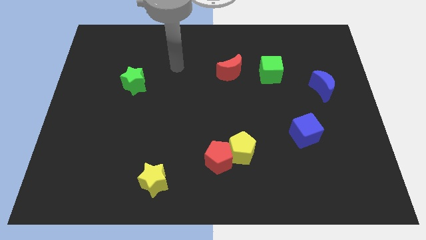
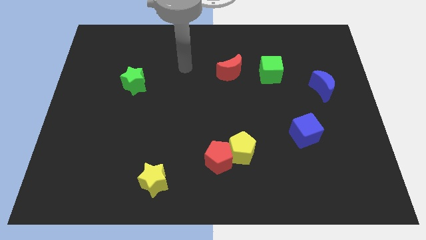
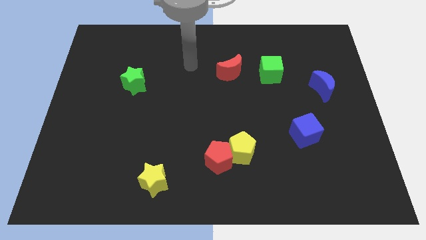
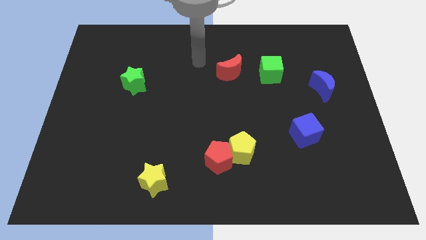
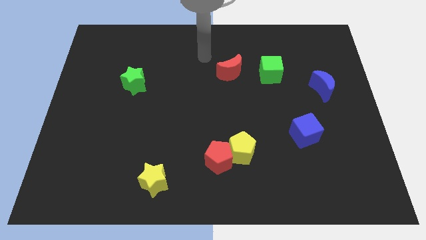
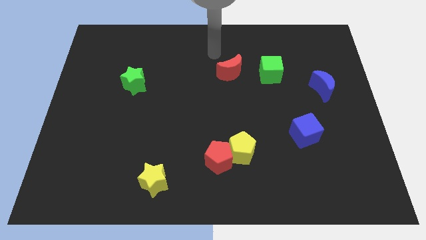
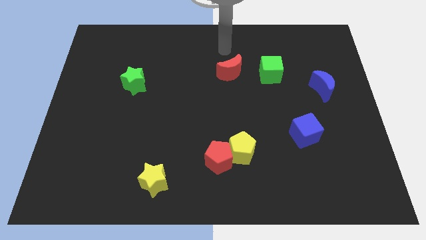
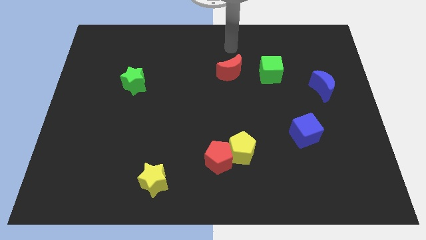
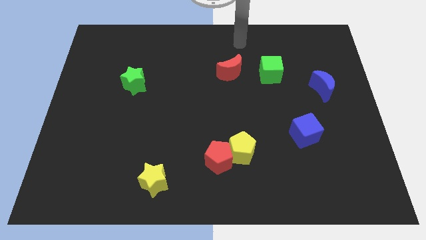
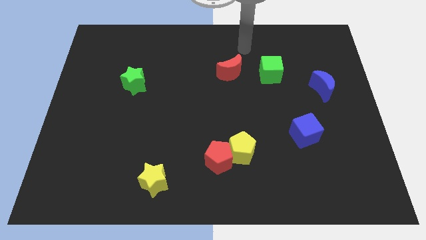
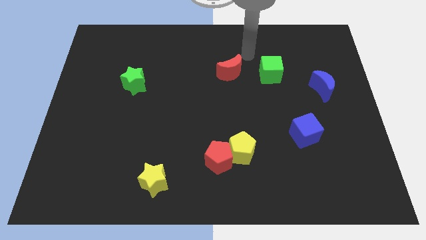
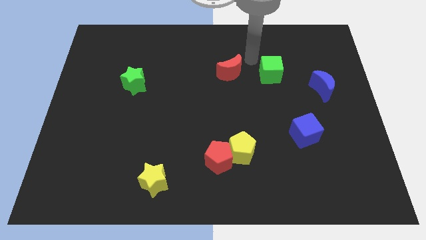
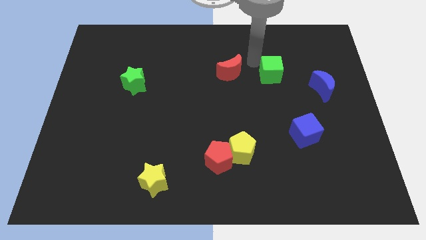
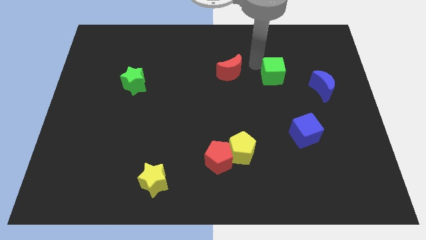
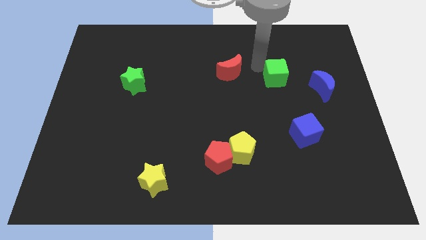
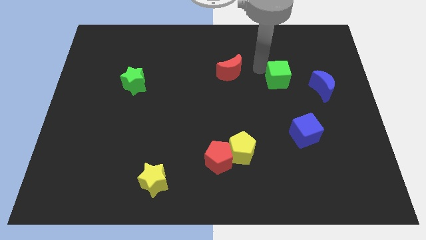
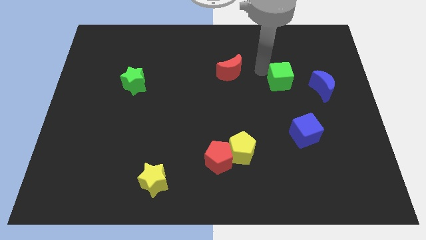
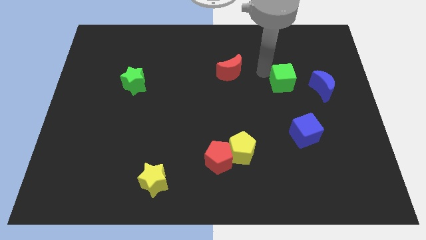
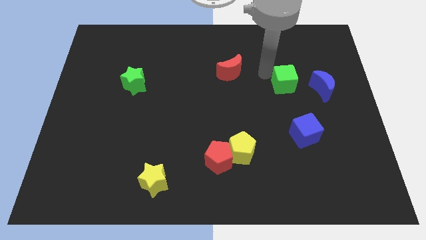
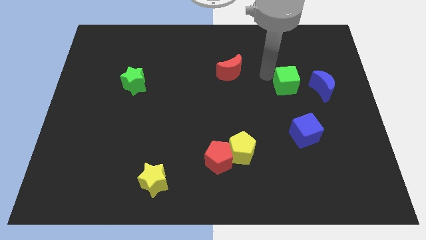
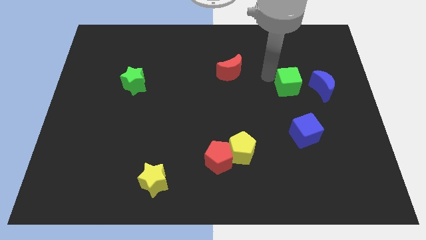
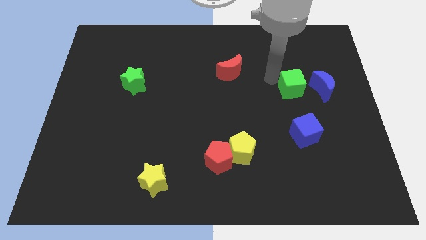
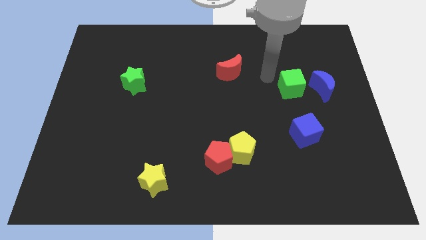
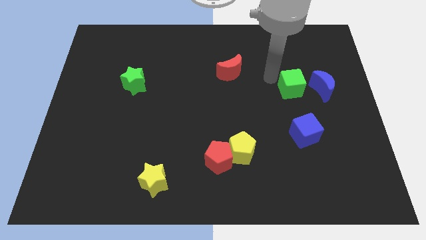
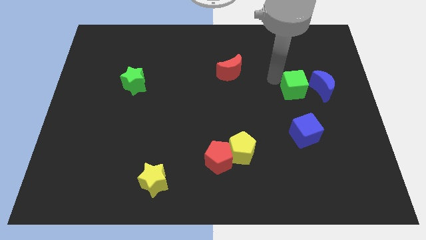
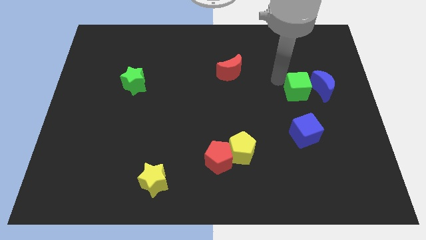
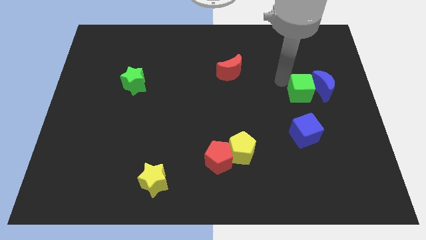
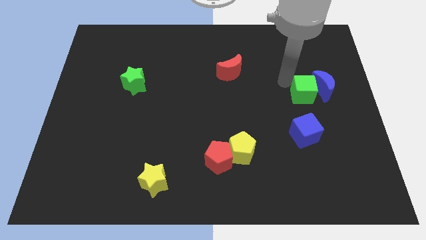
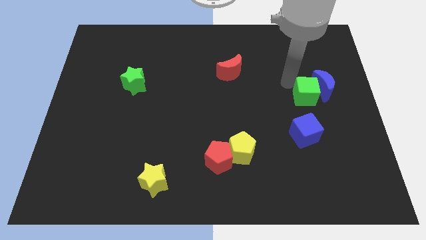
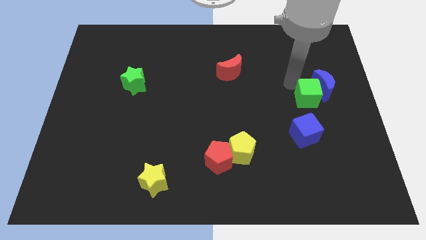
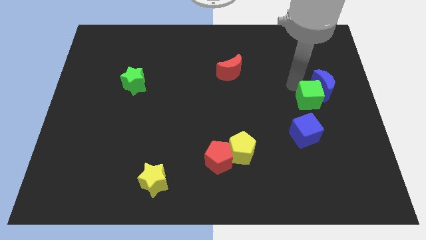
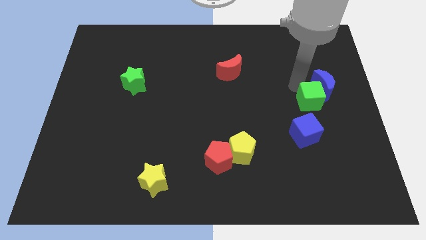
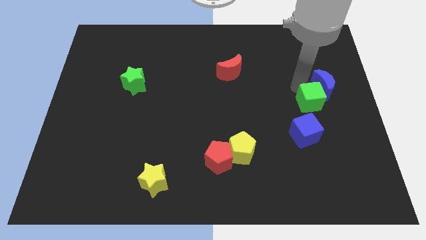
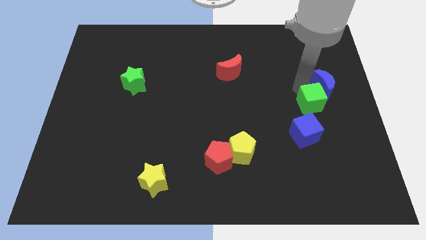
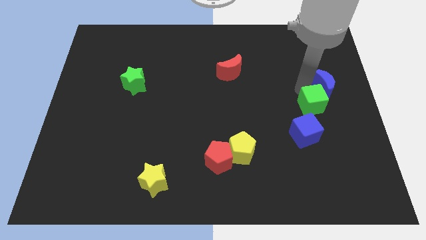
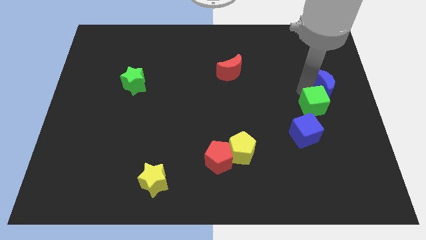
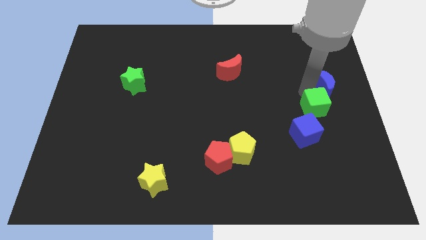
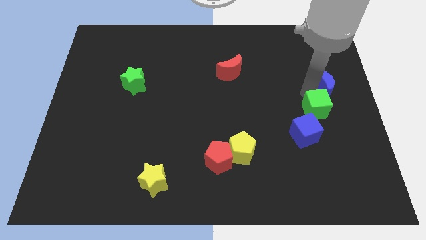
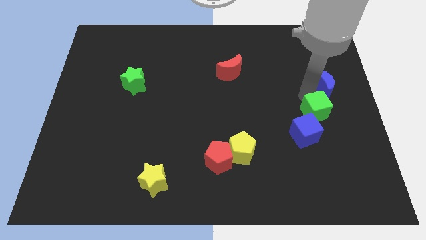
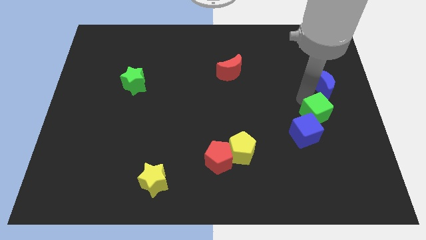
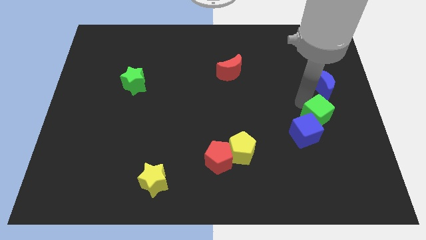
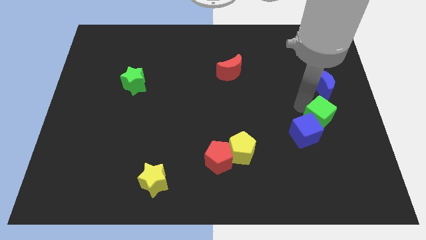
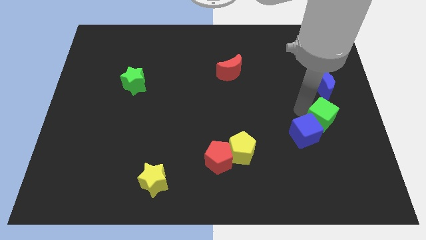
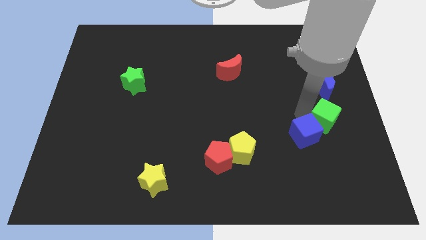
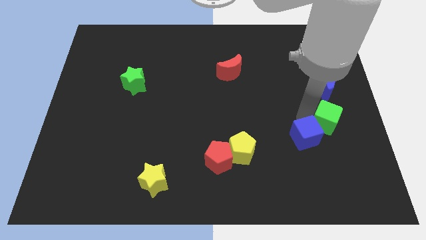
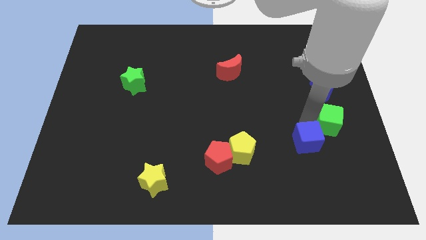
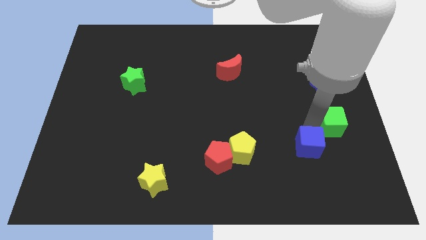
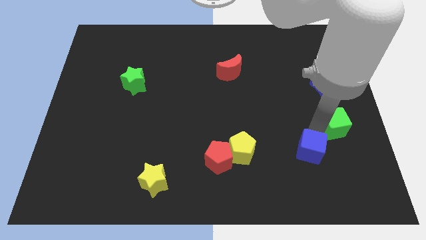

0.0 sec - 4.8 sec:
slide the green cube to the center right

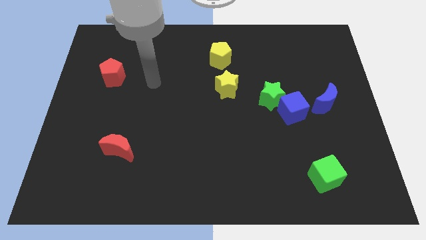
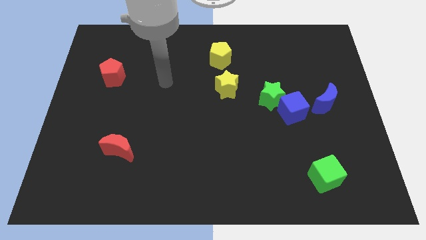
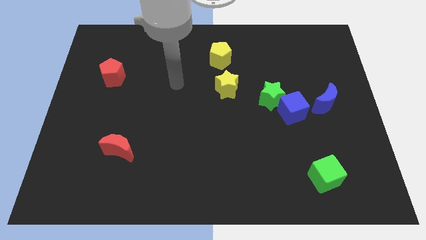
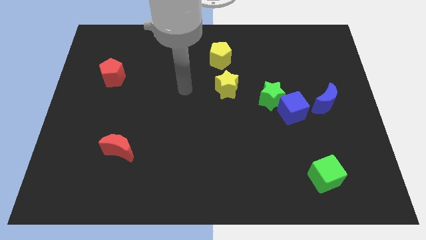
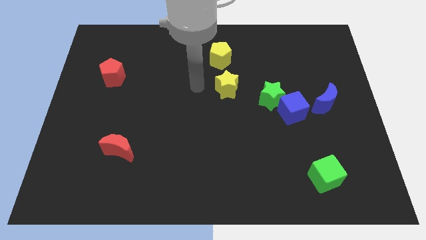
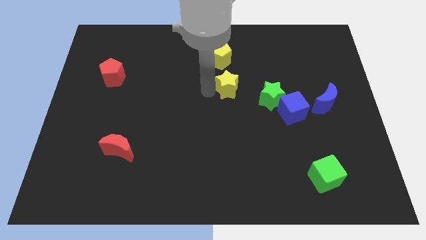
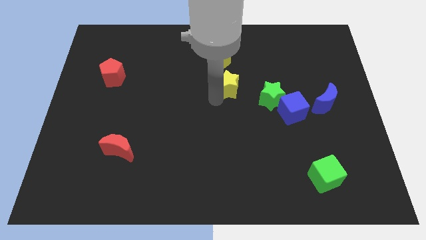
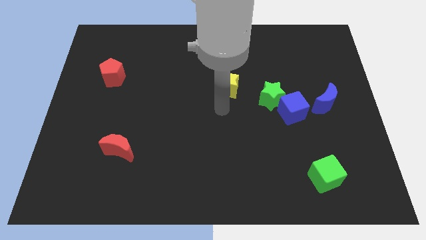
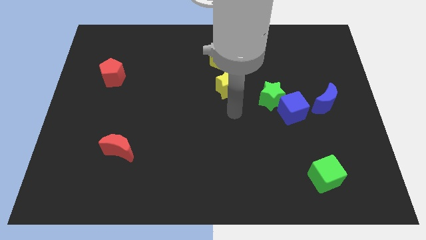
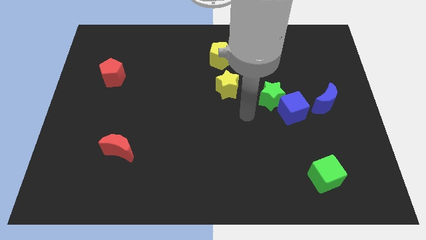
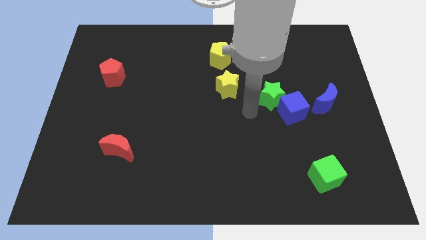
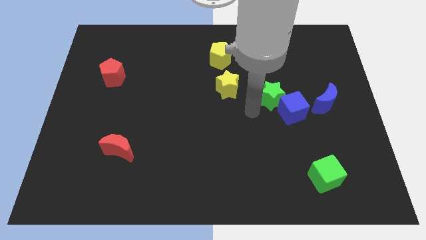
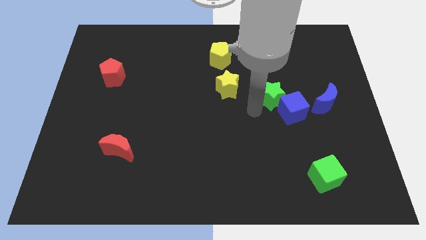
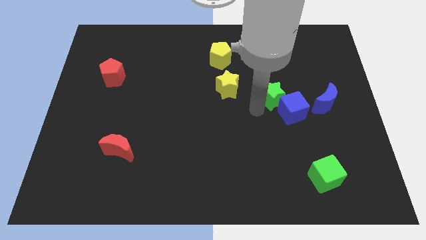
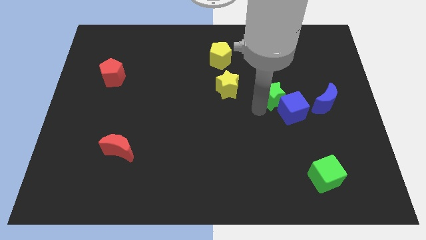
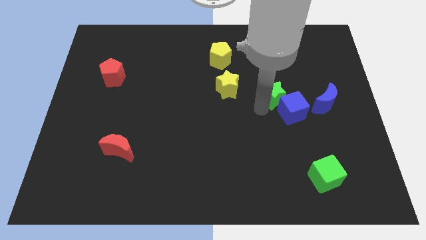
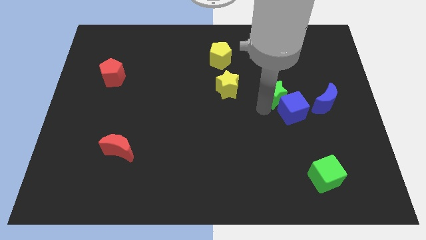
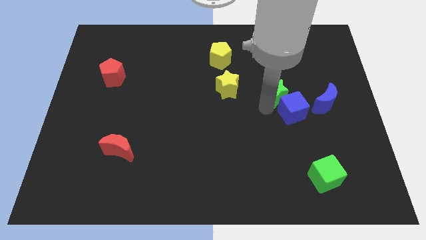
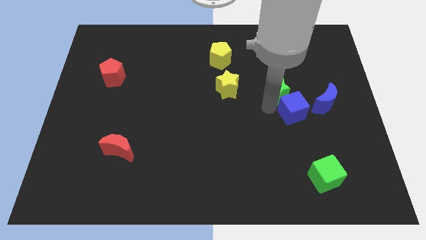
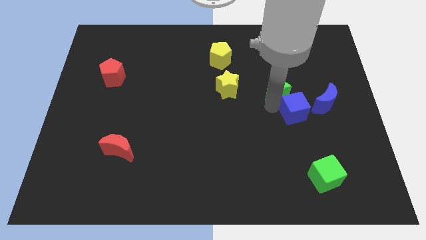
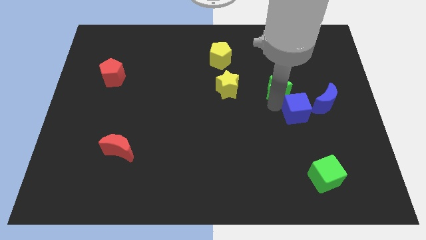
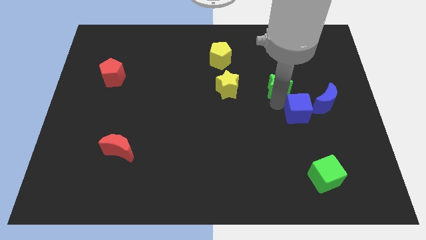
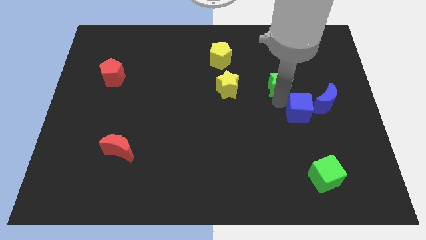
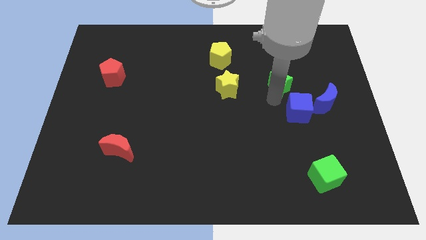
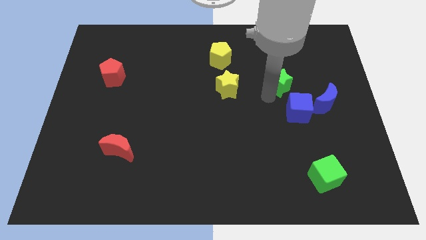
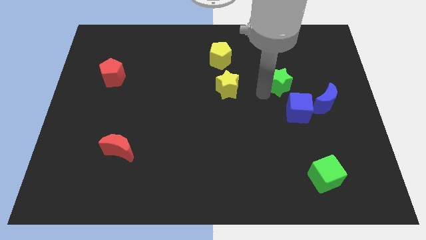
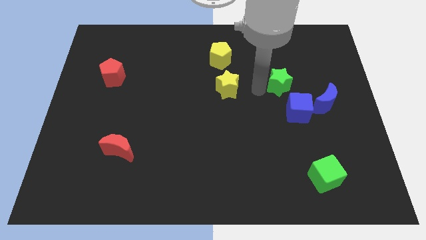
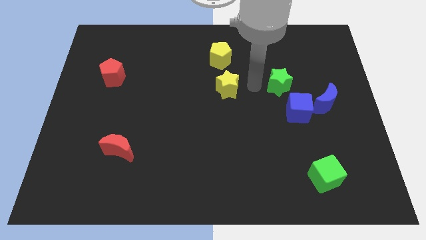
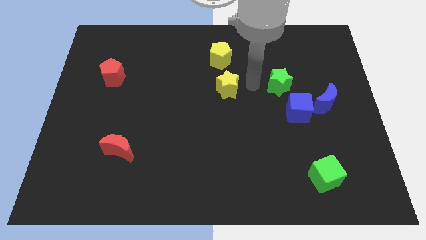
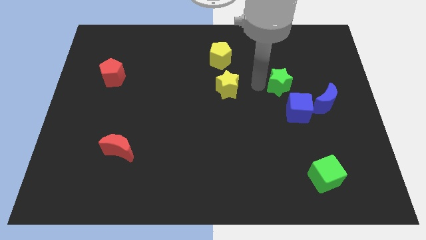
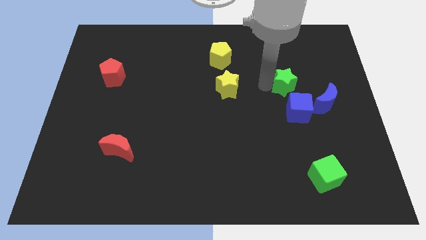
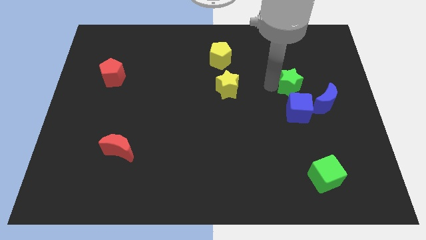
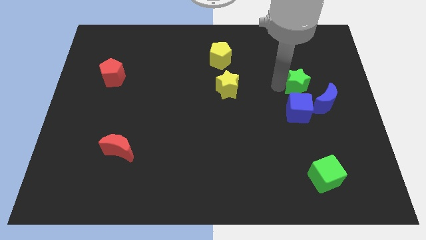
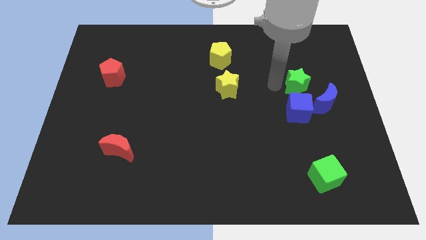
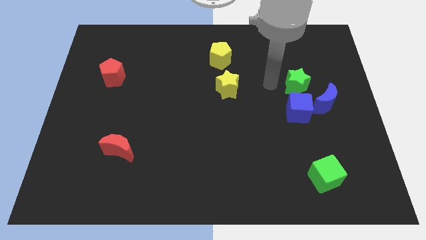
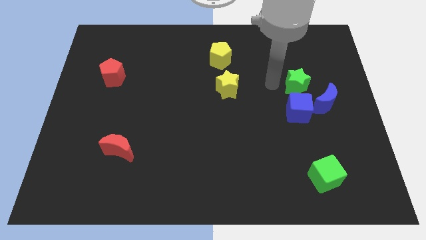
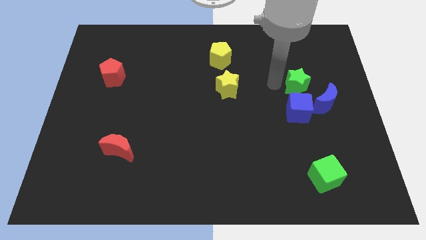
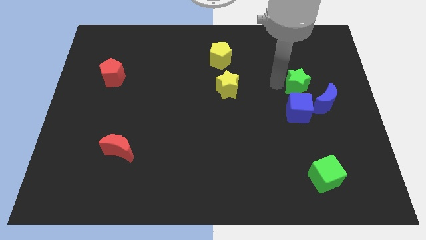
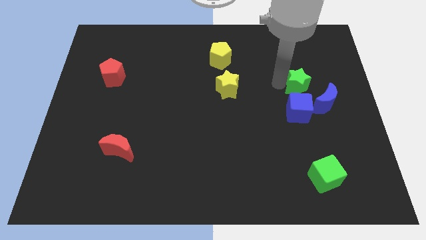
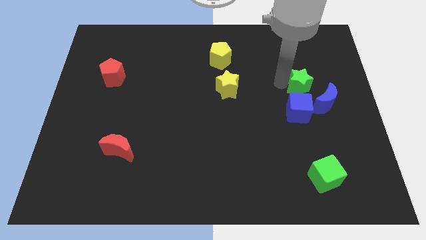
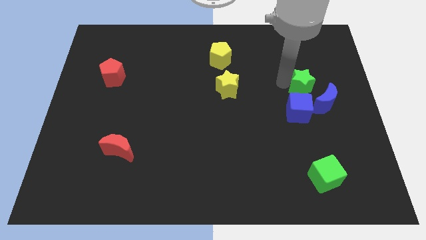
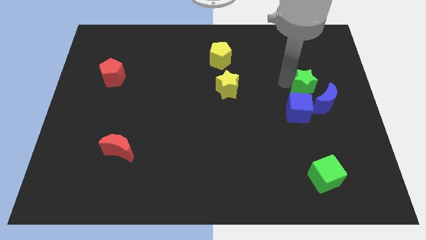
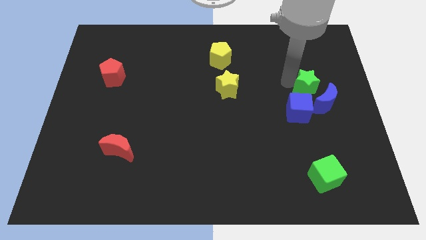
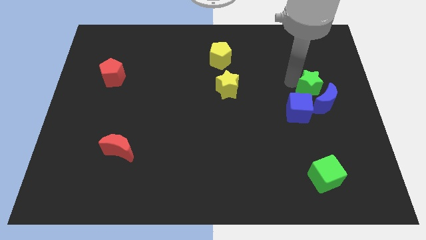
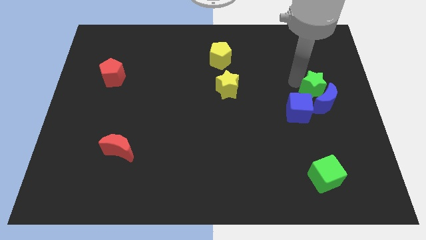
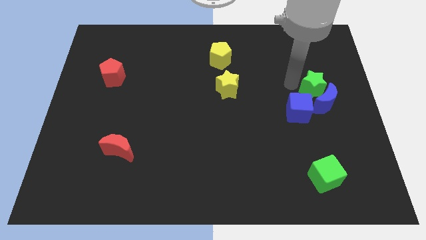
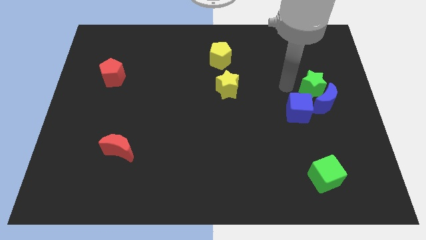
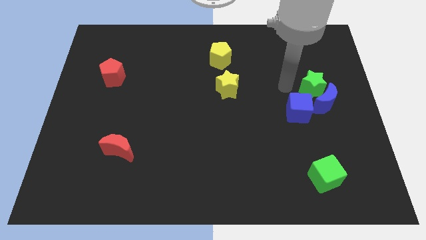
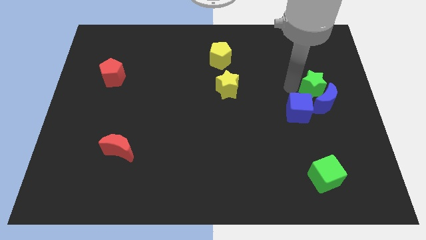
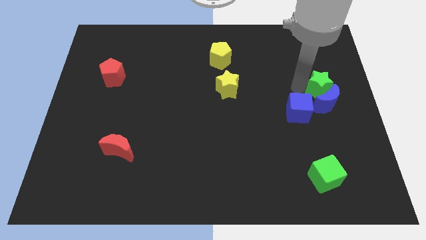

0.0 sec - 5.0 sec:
put the green star to the center right
